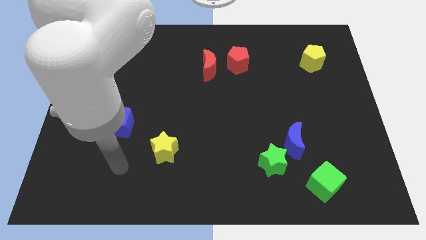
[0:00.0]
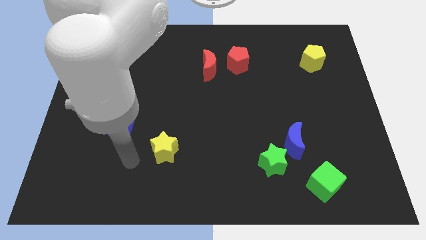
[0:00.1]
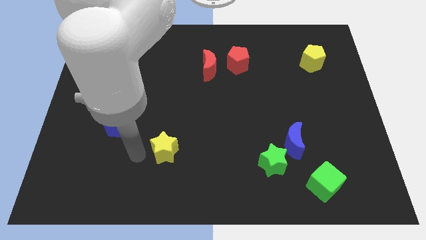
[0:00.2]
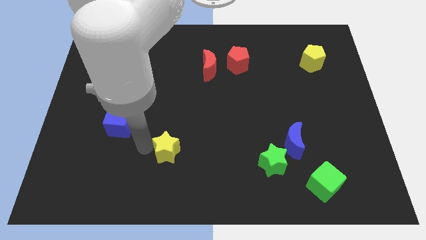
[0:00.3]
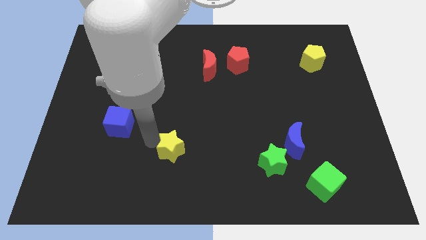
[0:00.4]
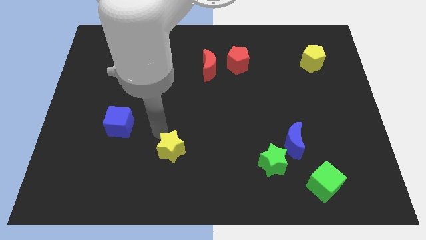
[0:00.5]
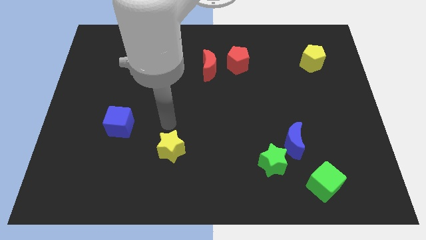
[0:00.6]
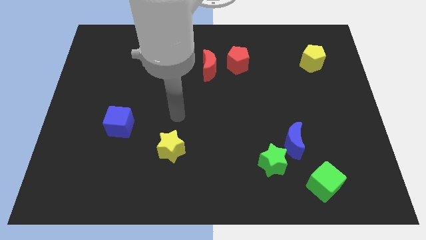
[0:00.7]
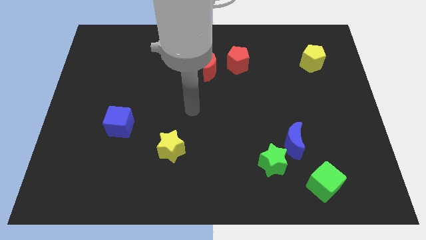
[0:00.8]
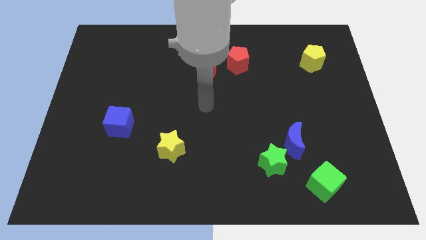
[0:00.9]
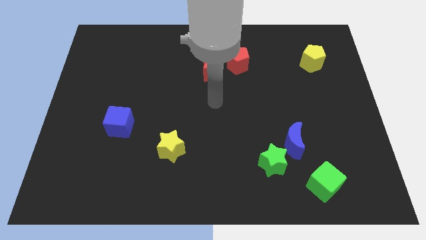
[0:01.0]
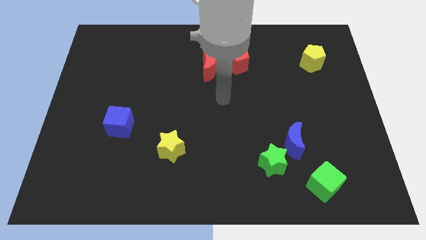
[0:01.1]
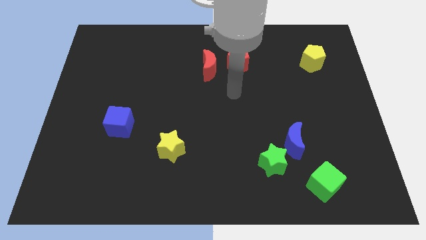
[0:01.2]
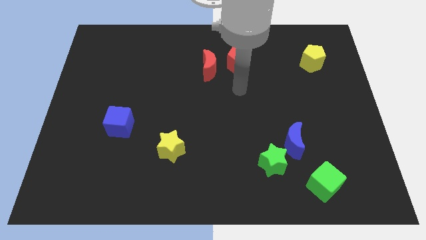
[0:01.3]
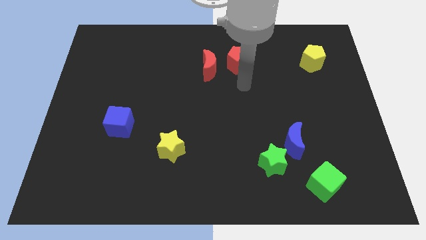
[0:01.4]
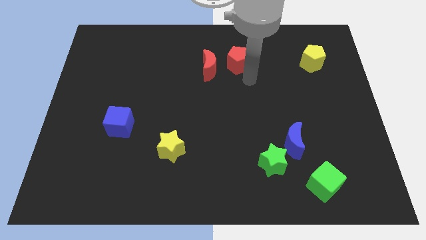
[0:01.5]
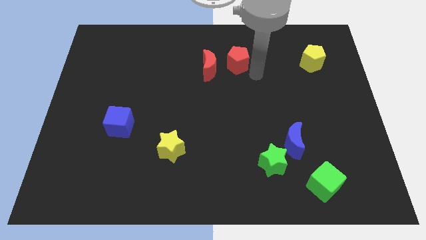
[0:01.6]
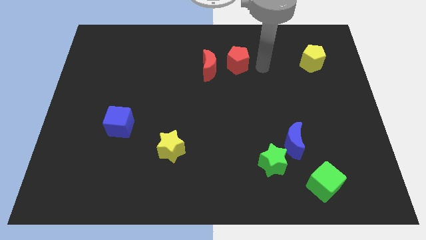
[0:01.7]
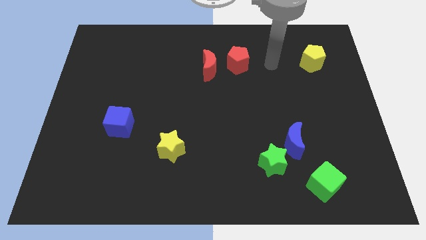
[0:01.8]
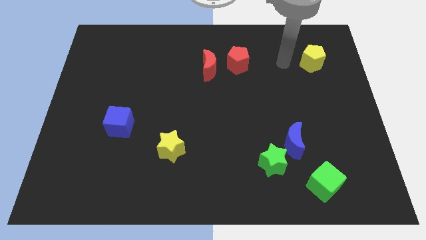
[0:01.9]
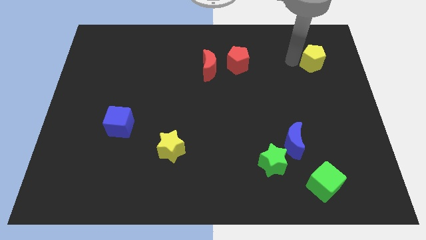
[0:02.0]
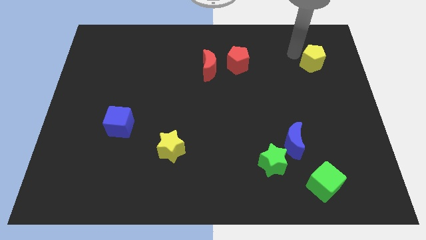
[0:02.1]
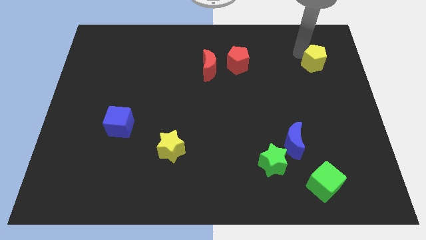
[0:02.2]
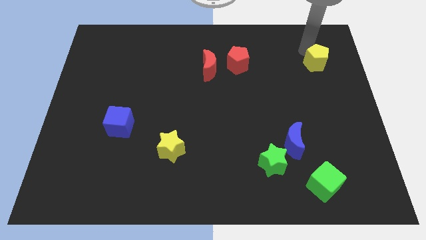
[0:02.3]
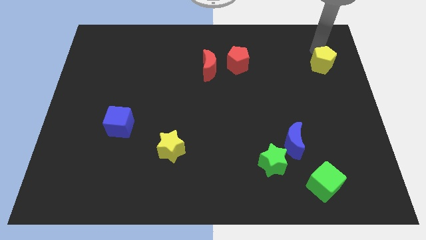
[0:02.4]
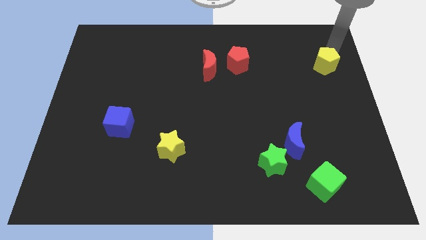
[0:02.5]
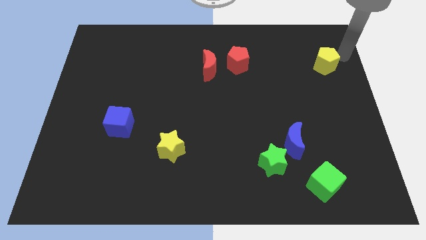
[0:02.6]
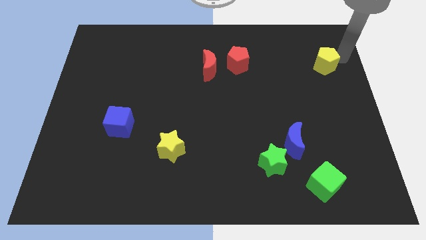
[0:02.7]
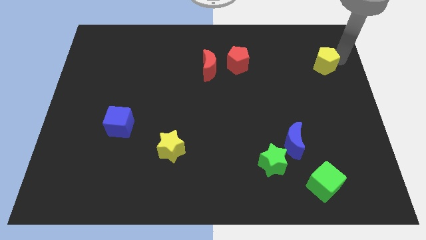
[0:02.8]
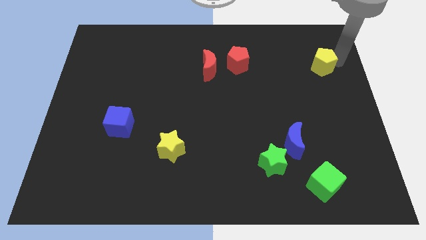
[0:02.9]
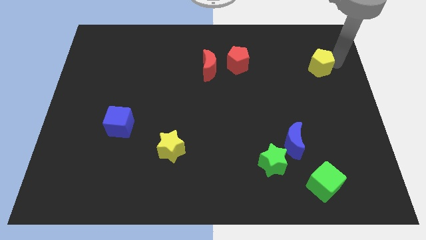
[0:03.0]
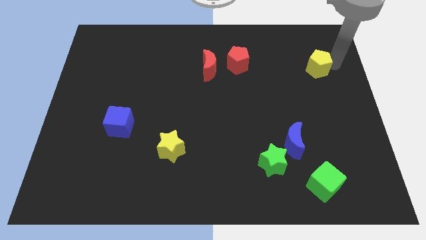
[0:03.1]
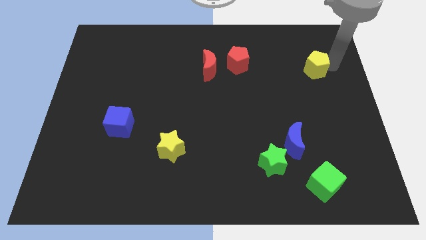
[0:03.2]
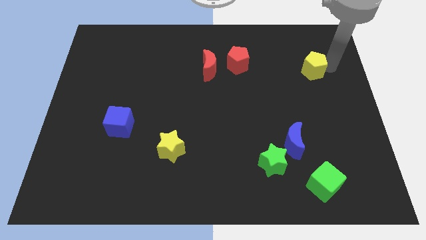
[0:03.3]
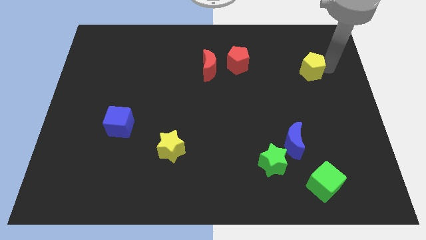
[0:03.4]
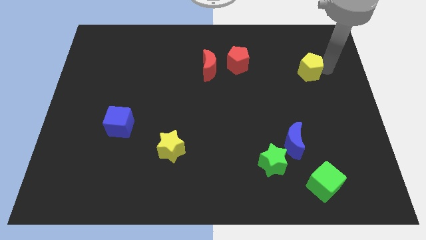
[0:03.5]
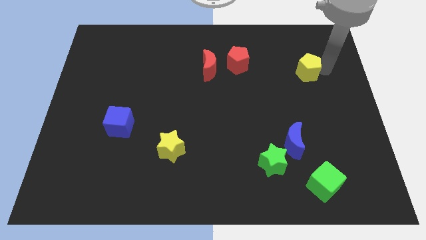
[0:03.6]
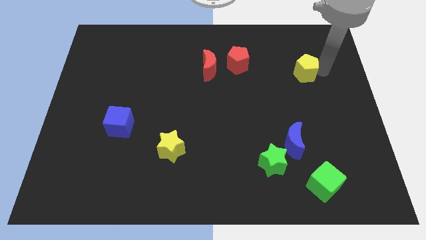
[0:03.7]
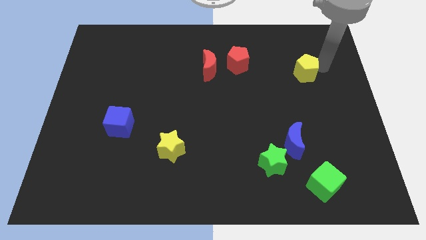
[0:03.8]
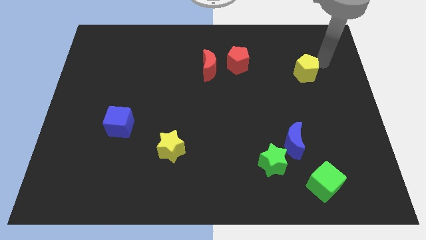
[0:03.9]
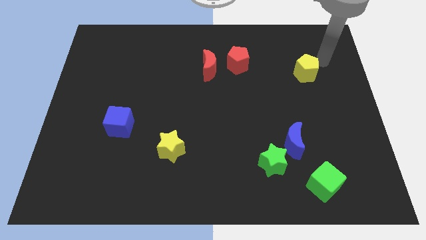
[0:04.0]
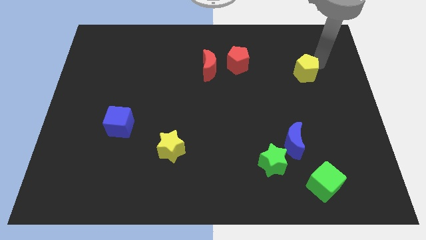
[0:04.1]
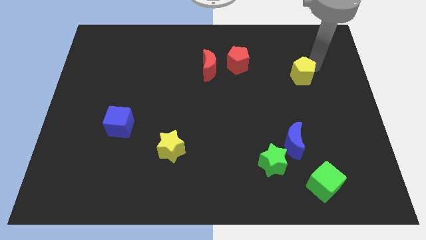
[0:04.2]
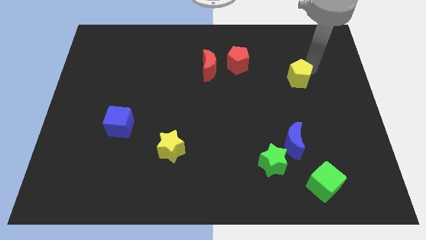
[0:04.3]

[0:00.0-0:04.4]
move the yellow pentagon somewhat diagonally down and to the left

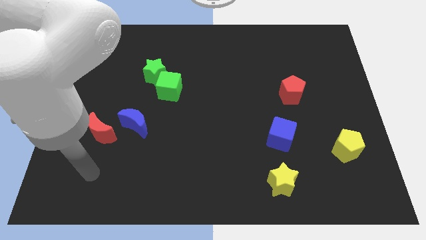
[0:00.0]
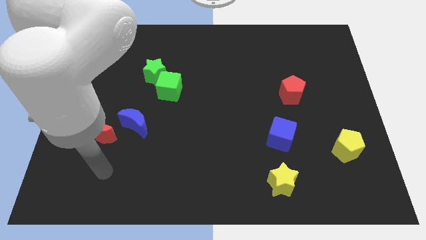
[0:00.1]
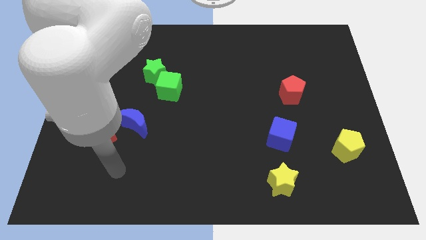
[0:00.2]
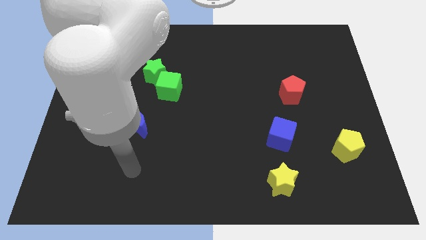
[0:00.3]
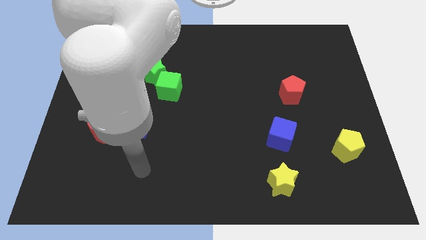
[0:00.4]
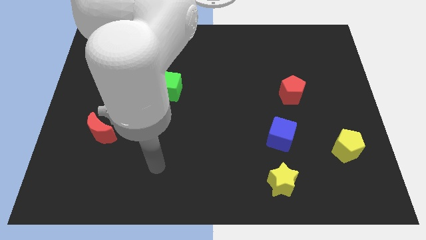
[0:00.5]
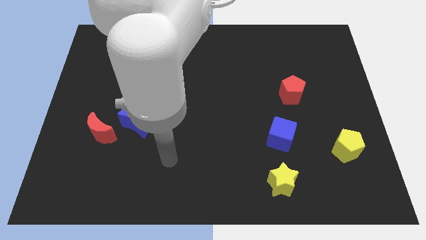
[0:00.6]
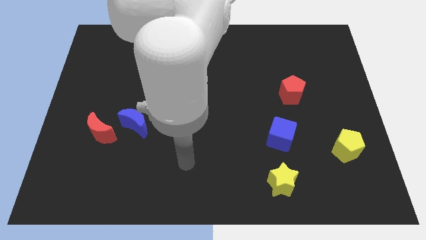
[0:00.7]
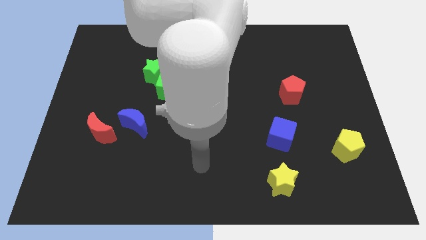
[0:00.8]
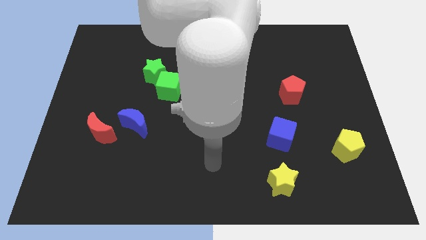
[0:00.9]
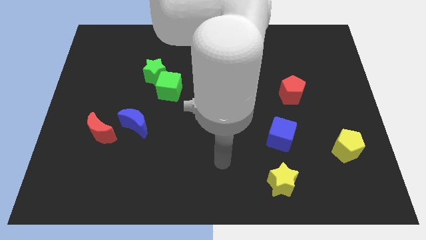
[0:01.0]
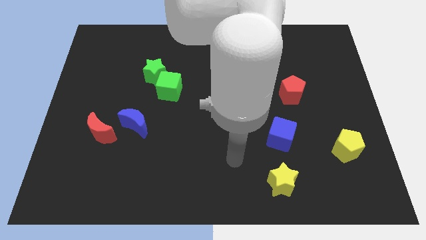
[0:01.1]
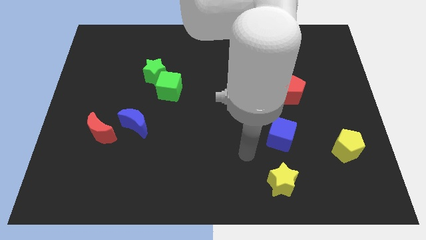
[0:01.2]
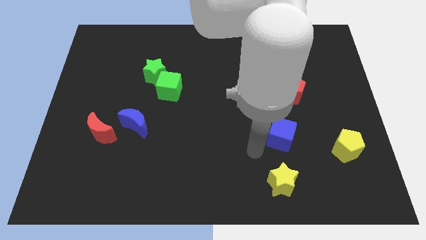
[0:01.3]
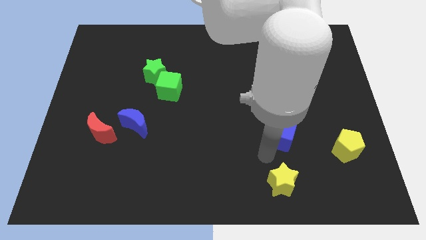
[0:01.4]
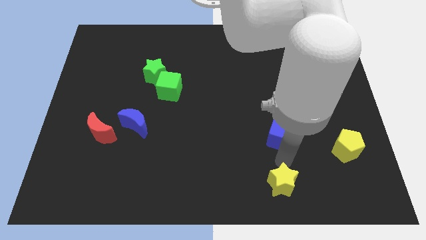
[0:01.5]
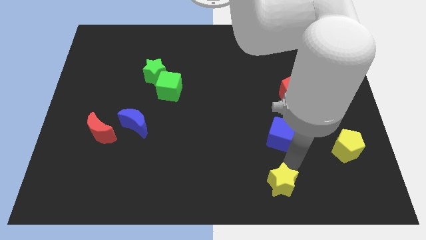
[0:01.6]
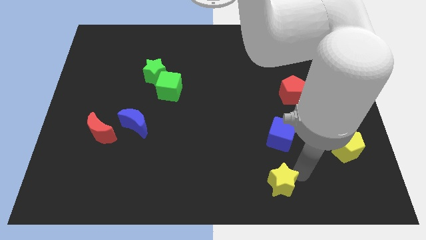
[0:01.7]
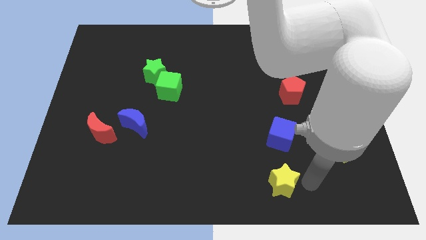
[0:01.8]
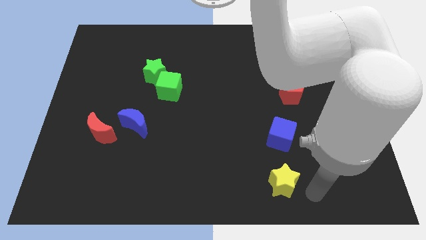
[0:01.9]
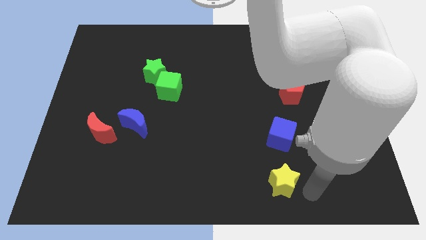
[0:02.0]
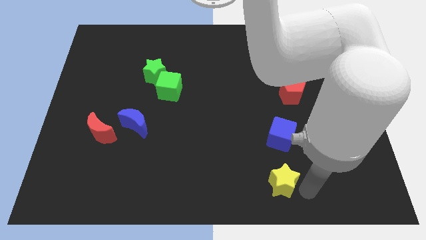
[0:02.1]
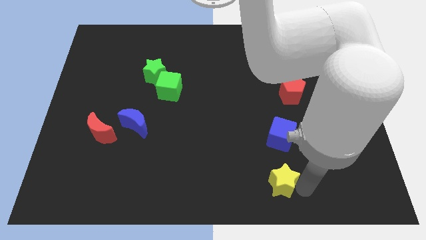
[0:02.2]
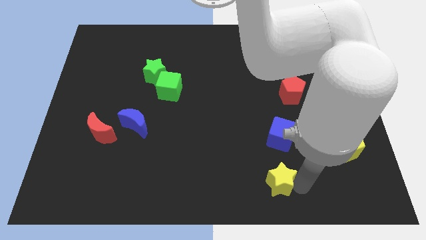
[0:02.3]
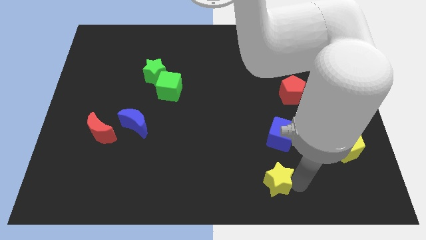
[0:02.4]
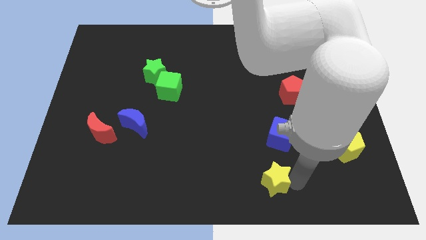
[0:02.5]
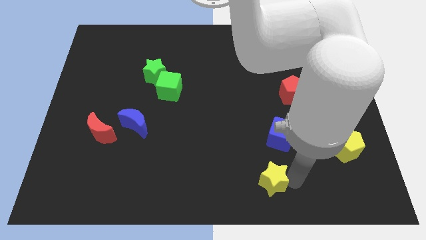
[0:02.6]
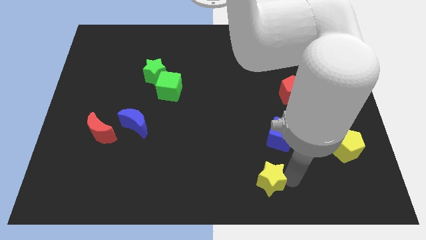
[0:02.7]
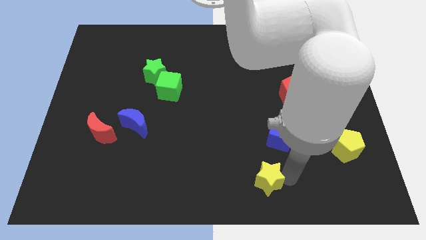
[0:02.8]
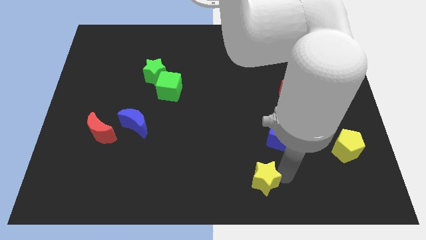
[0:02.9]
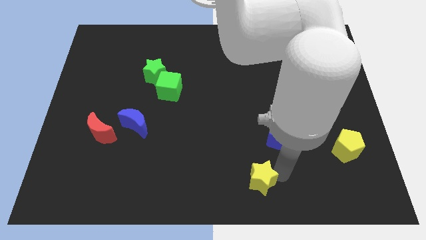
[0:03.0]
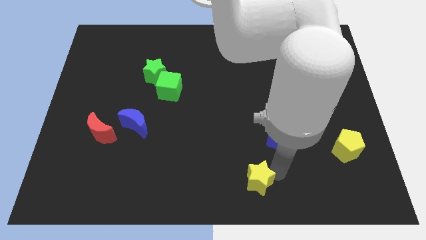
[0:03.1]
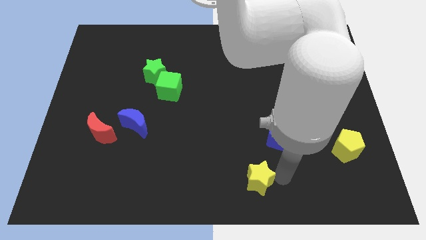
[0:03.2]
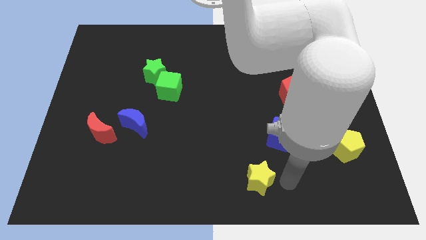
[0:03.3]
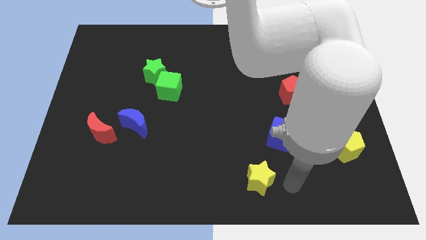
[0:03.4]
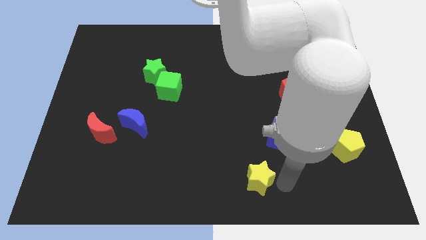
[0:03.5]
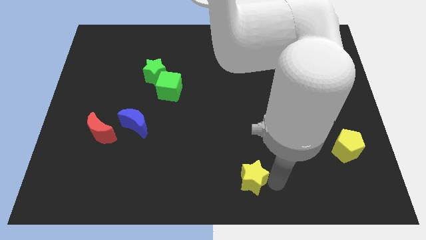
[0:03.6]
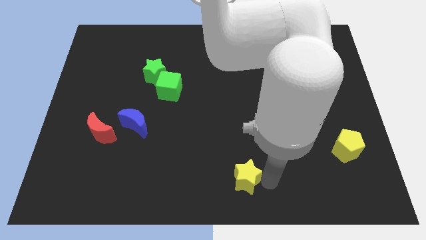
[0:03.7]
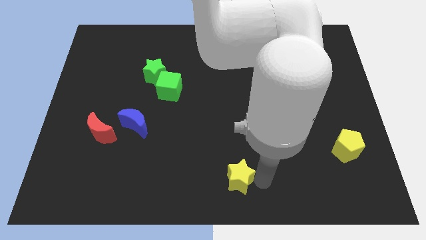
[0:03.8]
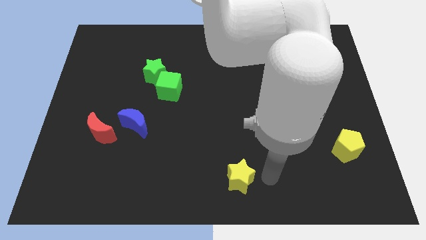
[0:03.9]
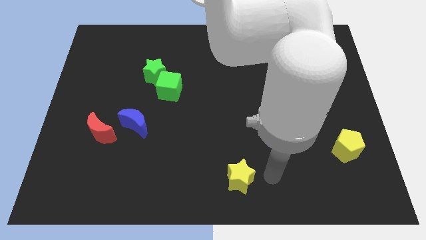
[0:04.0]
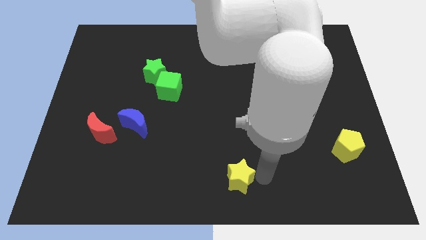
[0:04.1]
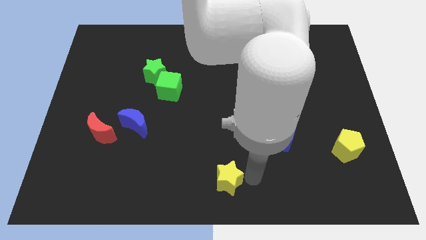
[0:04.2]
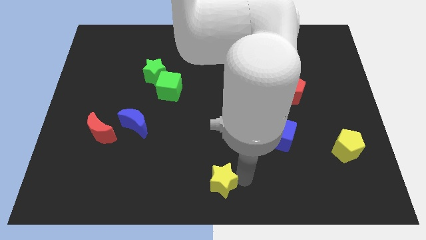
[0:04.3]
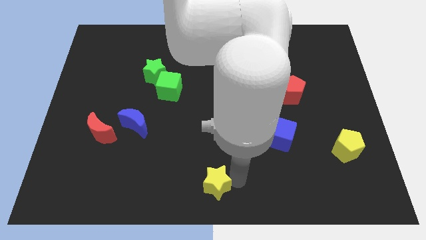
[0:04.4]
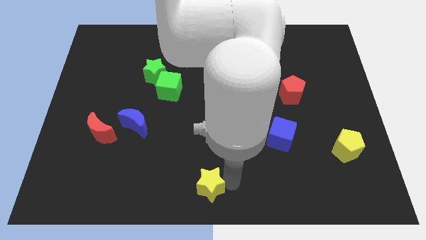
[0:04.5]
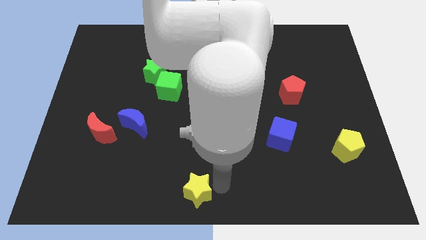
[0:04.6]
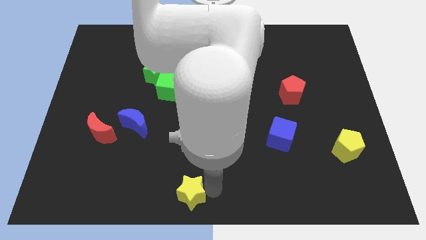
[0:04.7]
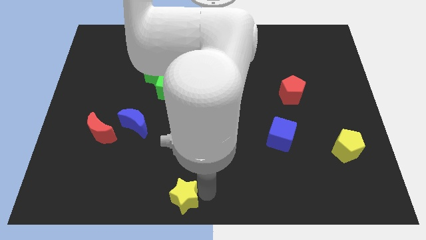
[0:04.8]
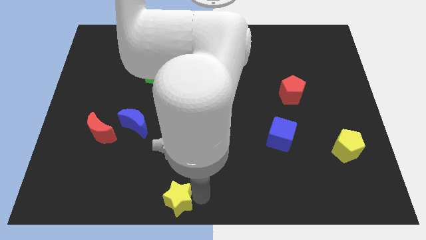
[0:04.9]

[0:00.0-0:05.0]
move the yellow star left
